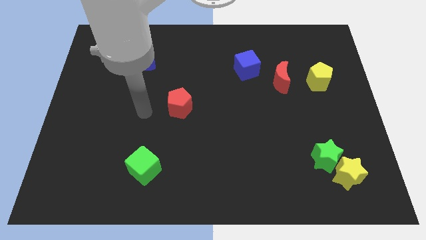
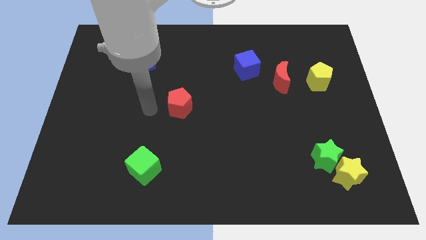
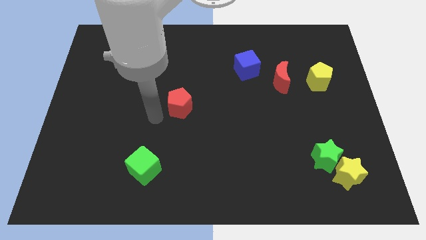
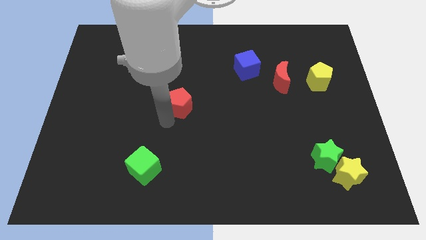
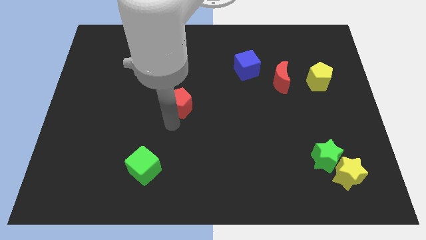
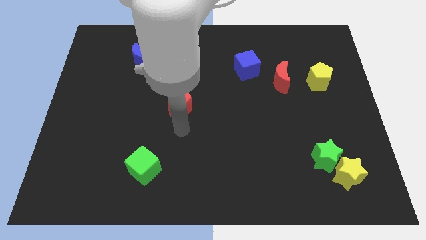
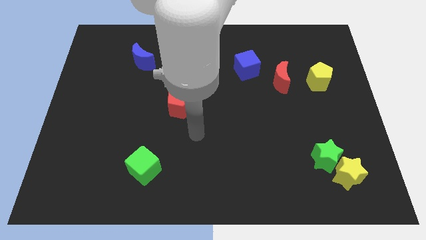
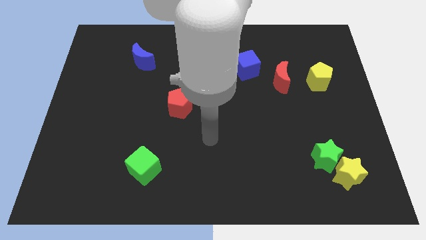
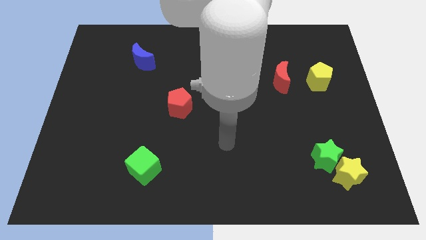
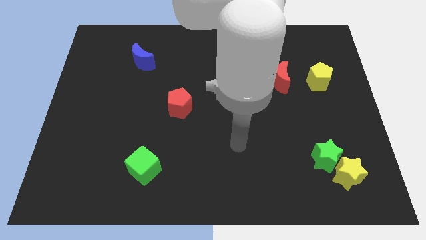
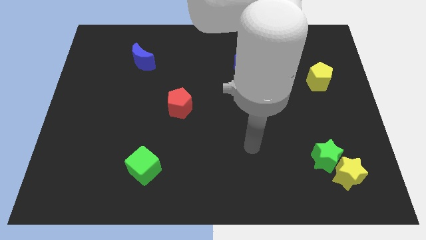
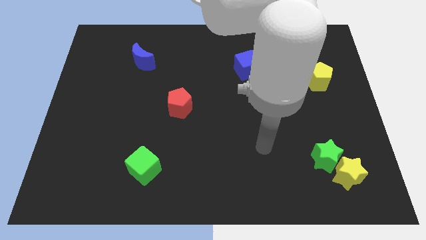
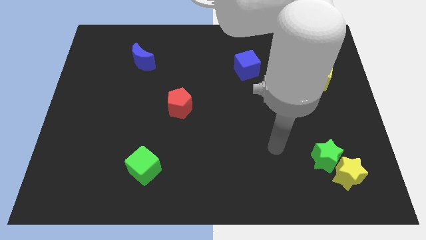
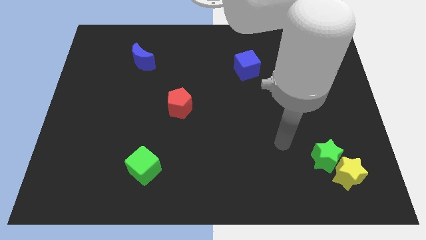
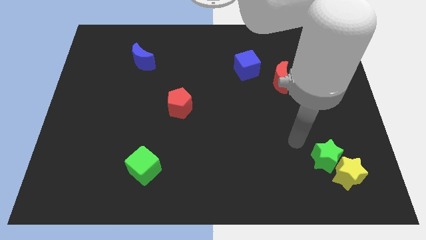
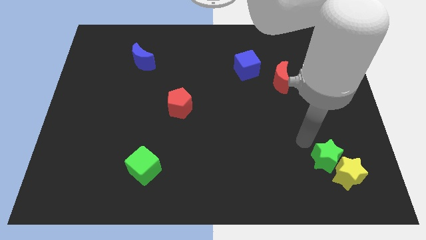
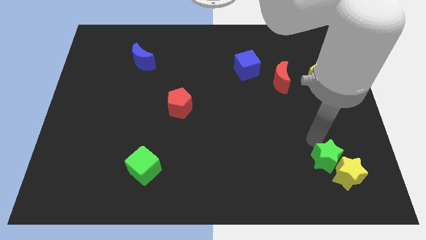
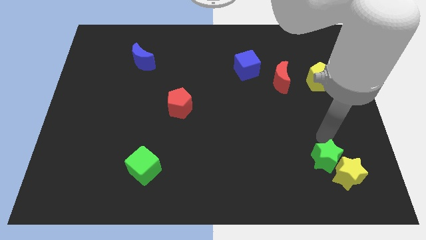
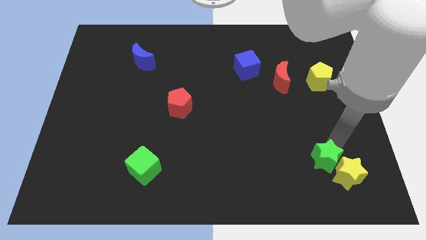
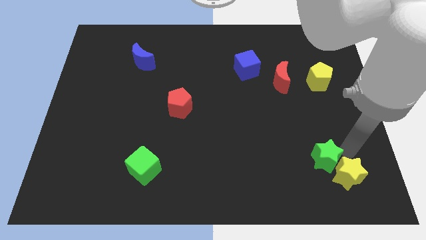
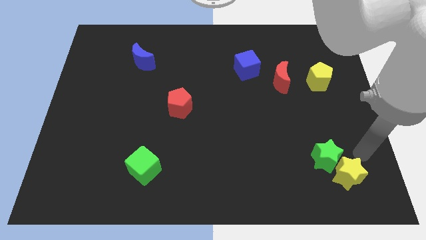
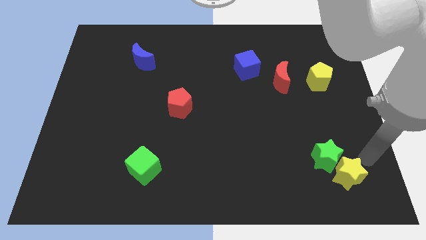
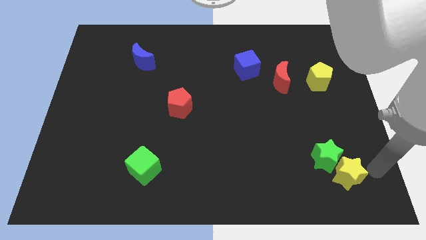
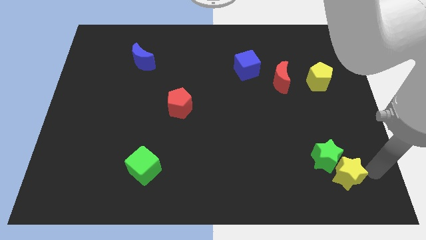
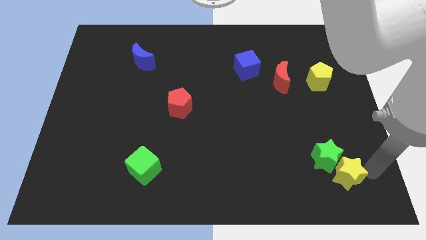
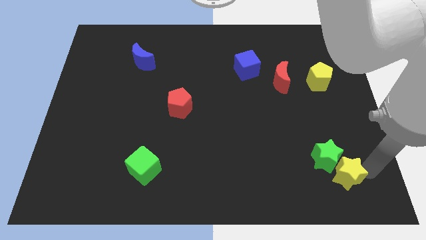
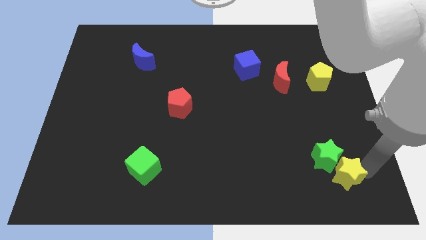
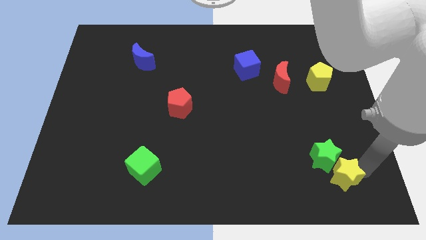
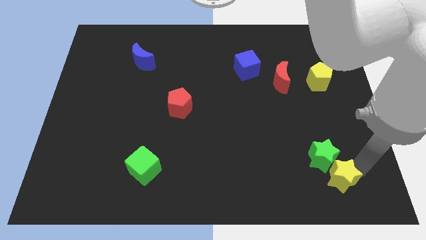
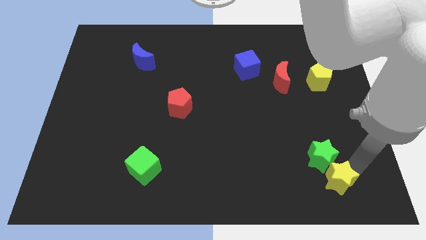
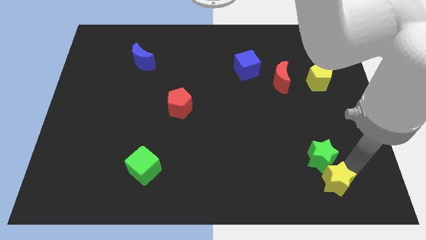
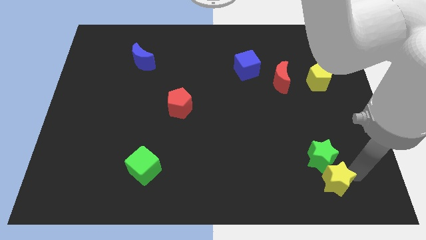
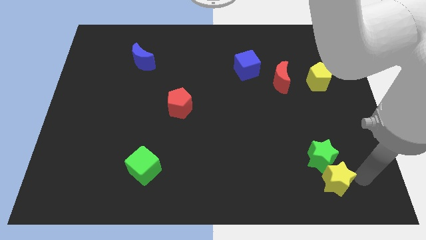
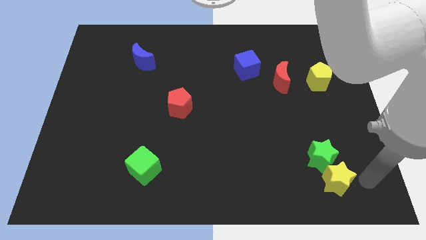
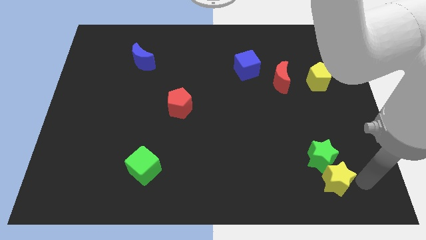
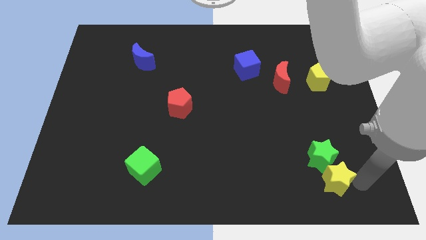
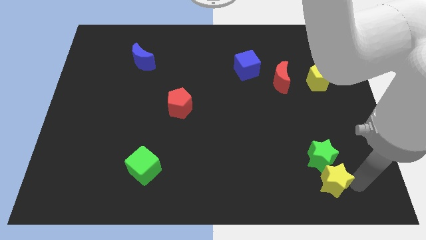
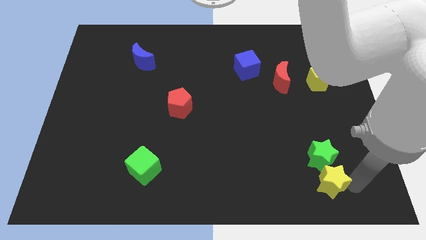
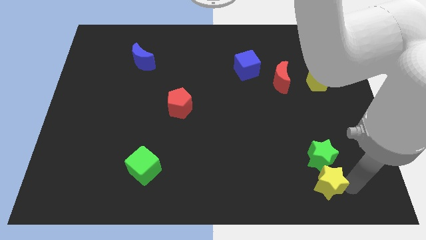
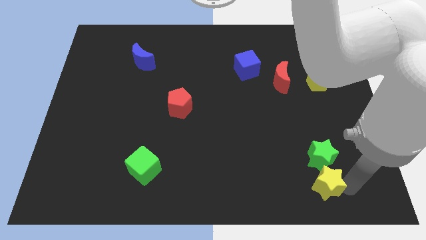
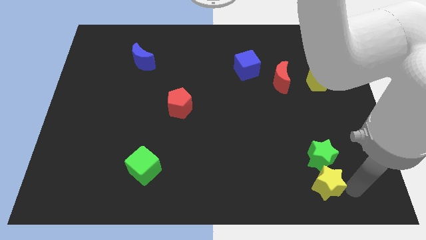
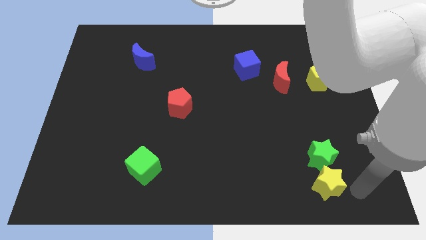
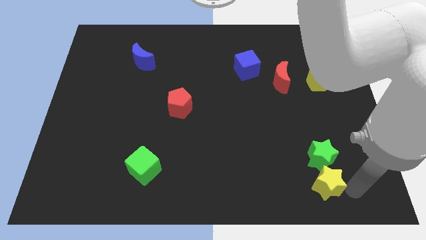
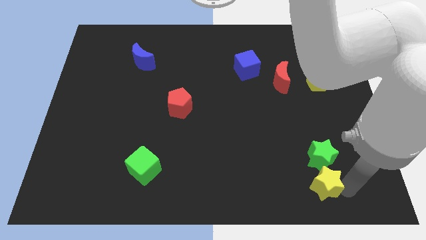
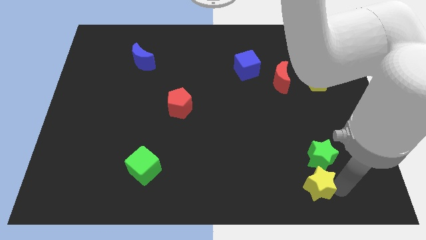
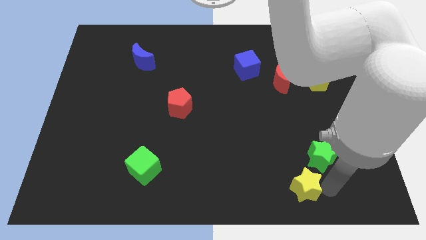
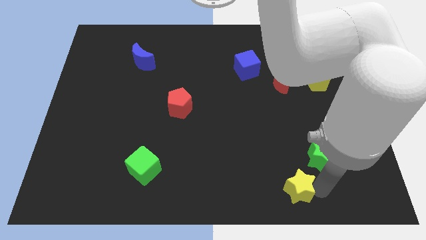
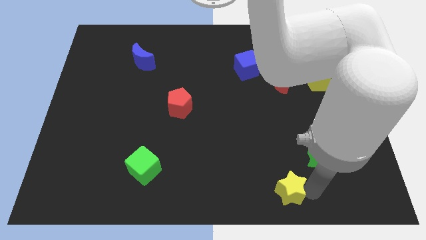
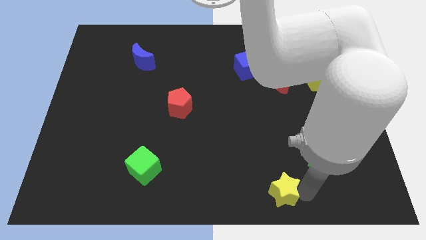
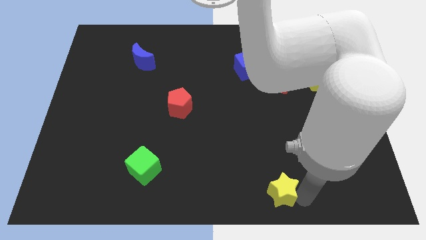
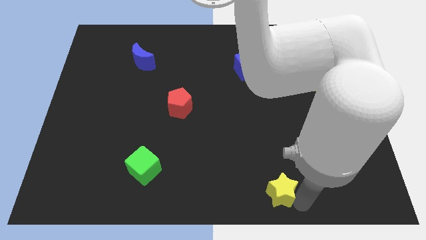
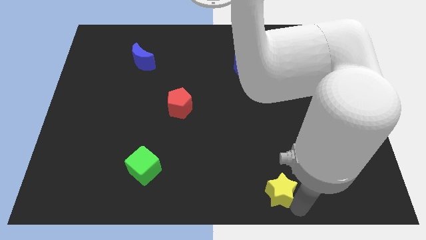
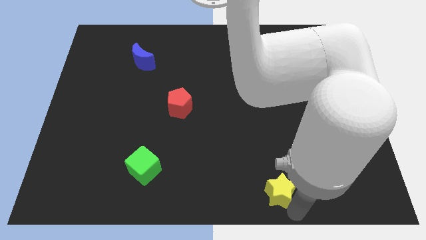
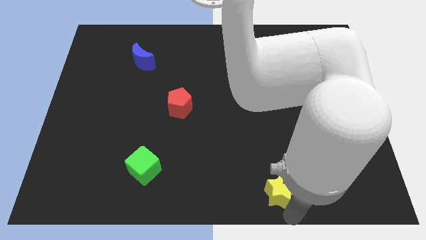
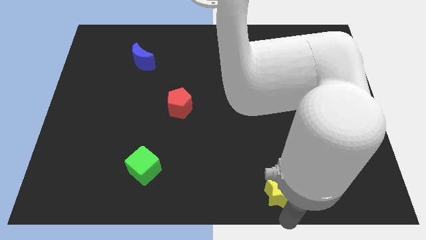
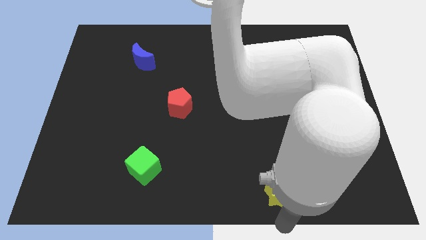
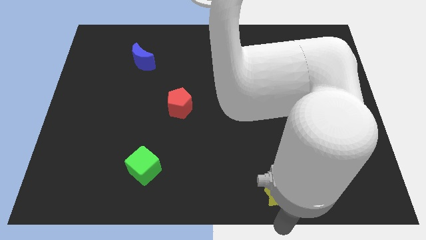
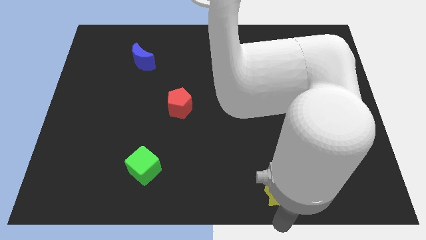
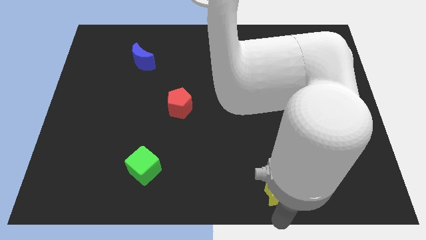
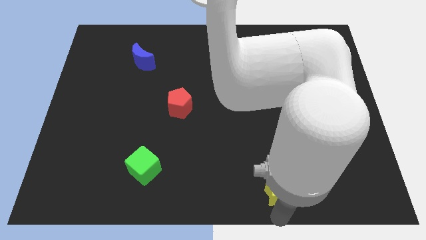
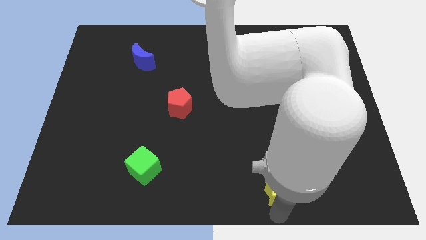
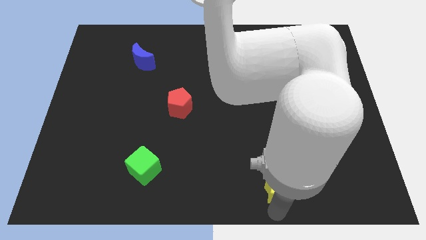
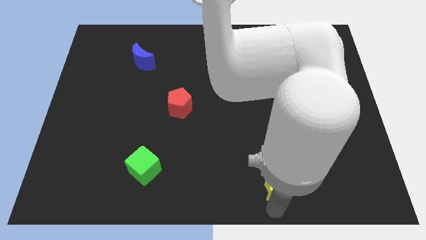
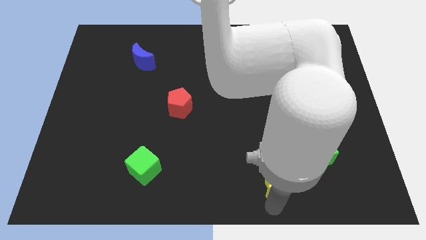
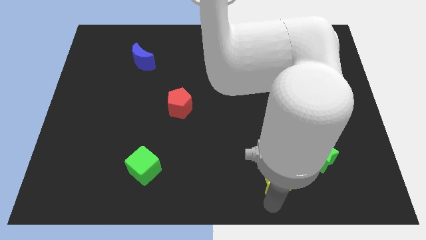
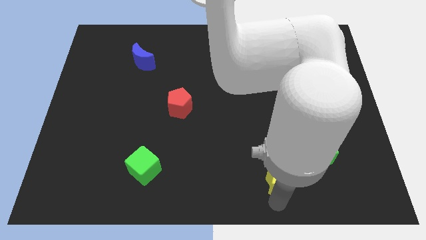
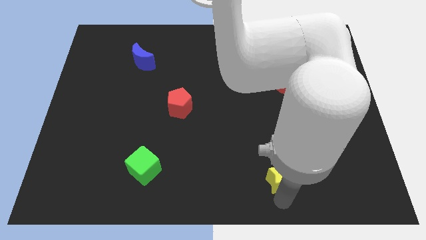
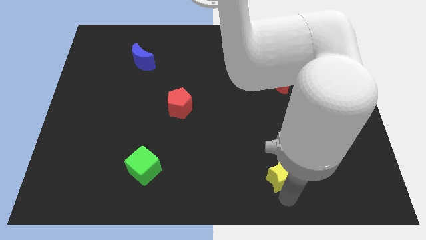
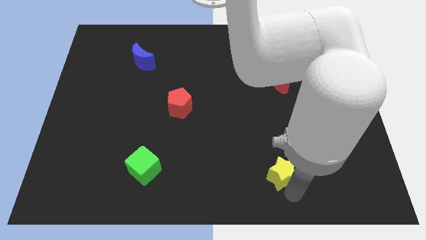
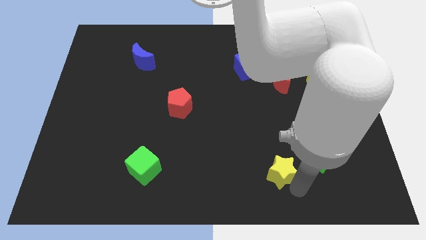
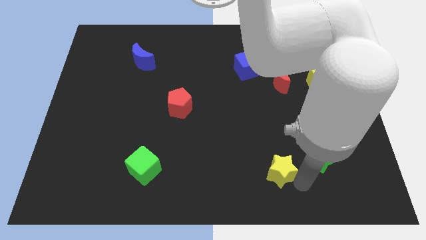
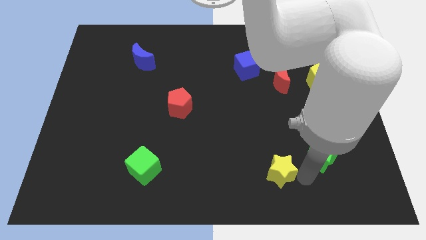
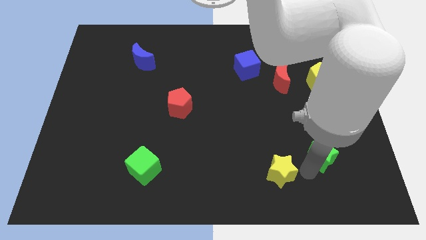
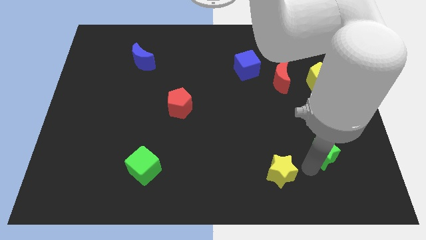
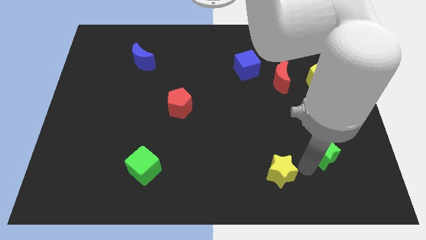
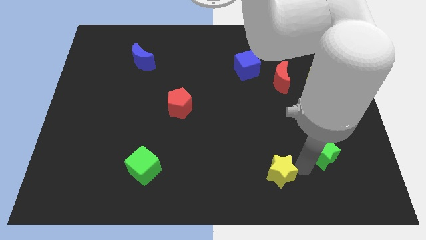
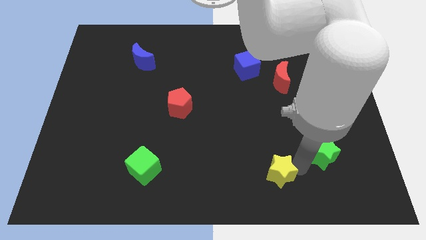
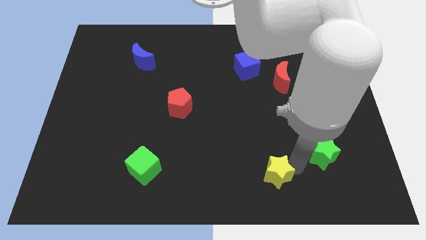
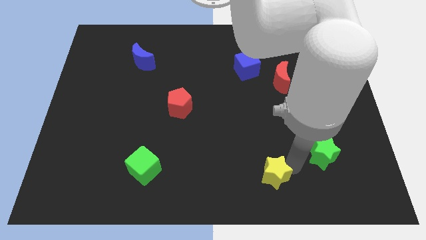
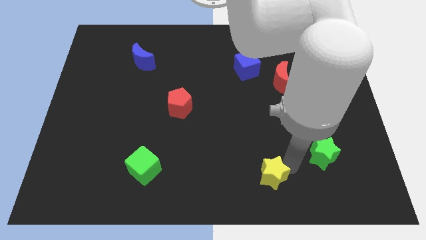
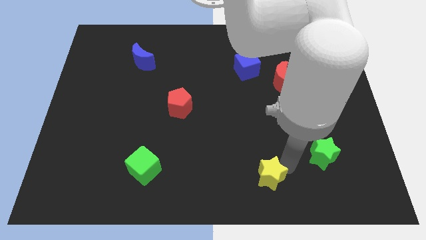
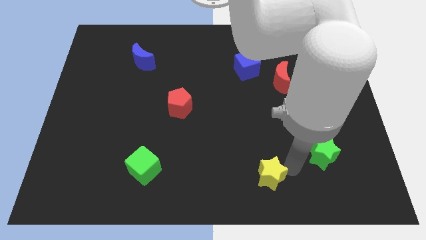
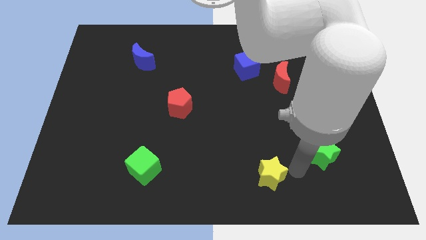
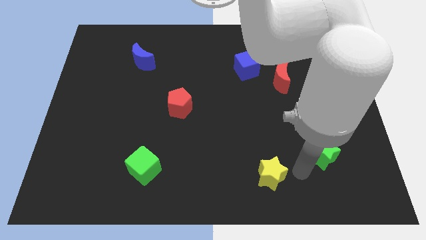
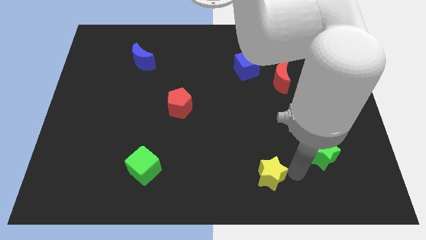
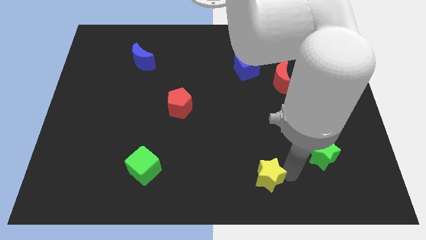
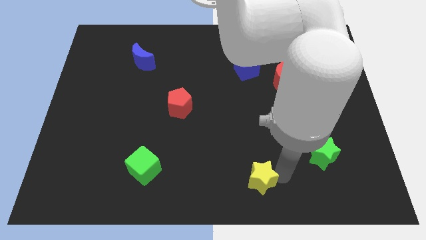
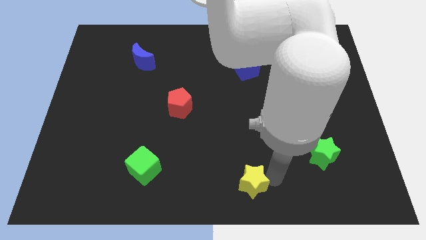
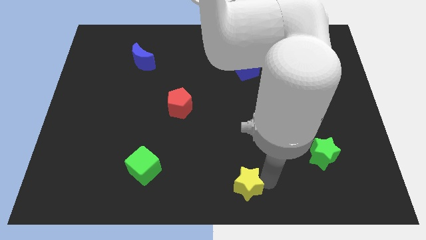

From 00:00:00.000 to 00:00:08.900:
move the yellow star left
